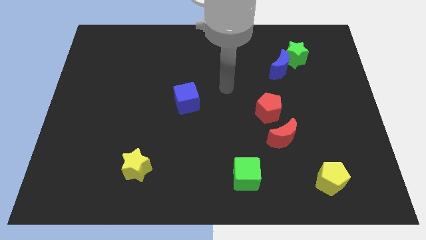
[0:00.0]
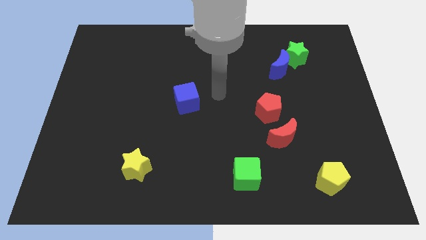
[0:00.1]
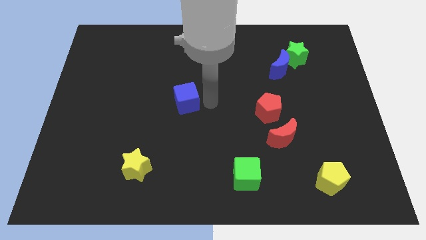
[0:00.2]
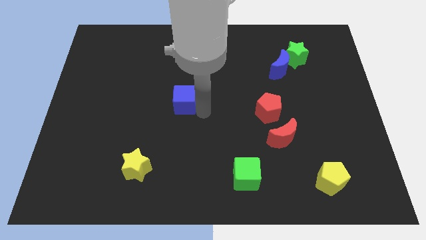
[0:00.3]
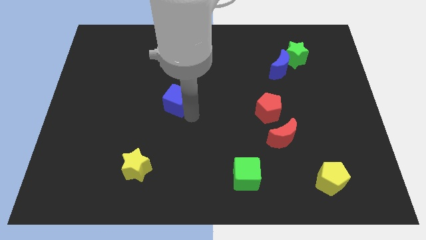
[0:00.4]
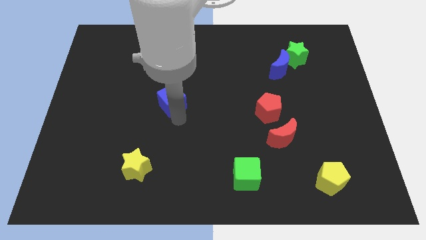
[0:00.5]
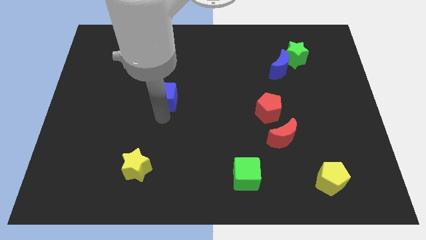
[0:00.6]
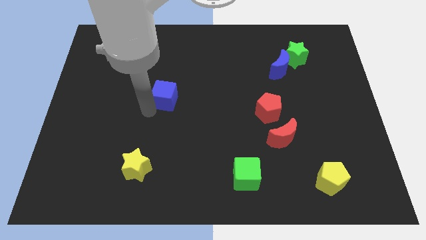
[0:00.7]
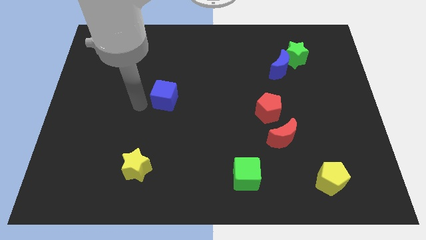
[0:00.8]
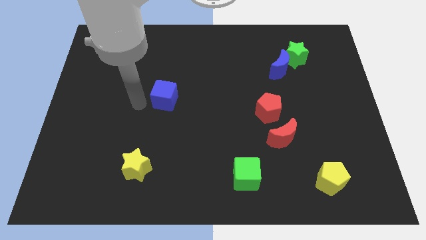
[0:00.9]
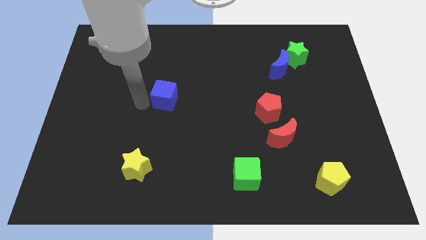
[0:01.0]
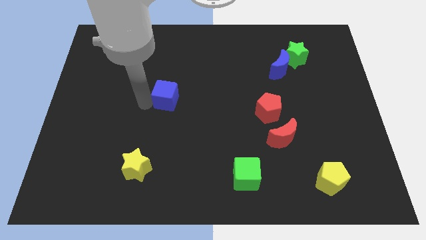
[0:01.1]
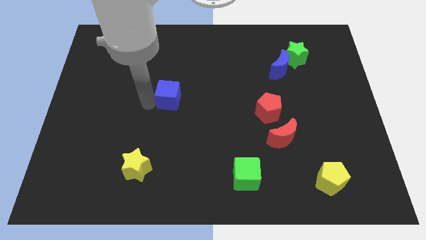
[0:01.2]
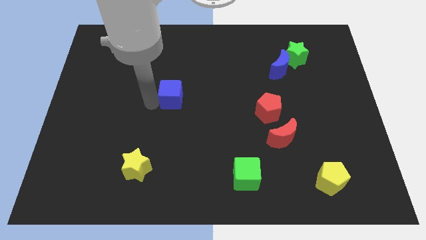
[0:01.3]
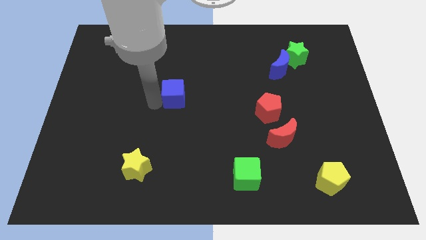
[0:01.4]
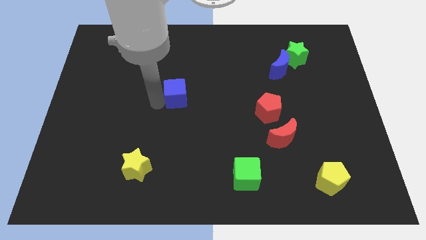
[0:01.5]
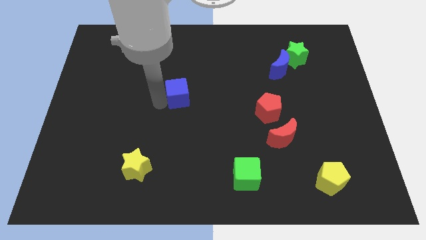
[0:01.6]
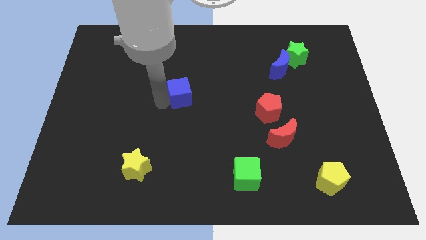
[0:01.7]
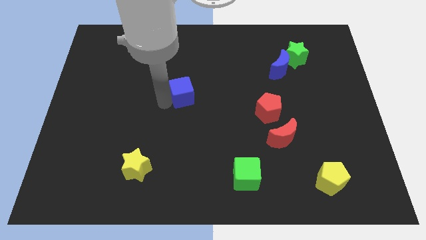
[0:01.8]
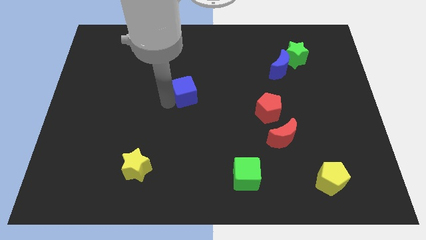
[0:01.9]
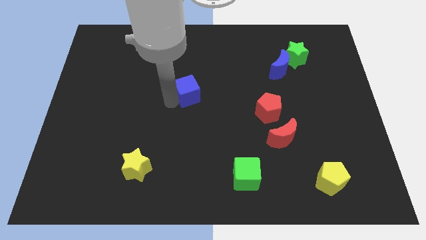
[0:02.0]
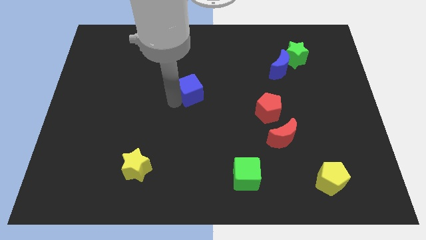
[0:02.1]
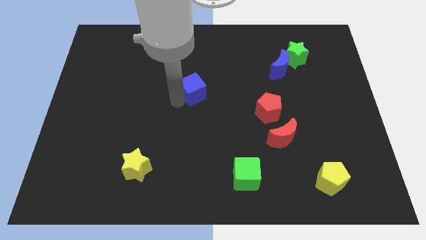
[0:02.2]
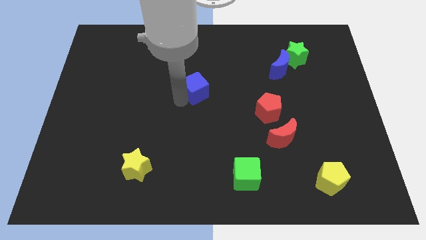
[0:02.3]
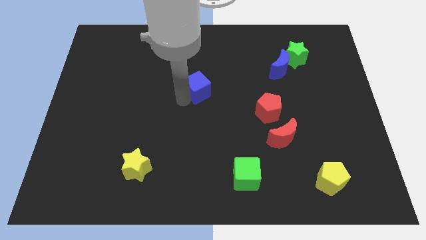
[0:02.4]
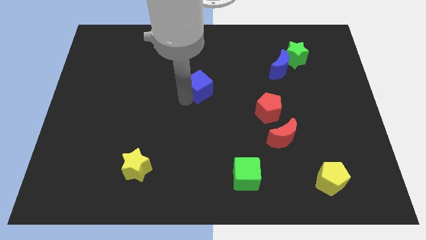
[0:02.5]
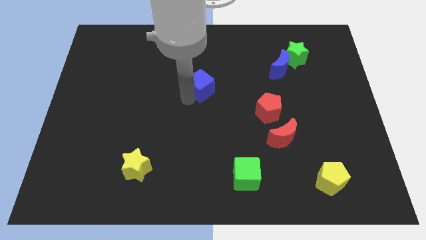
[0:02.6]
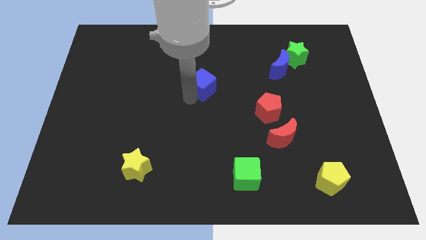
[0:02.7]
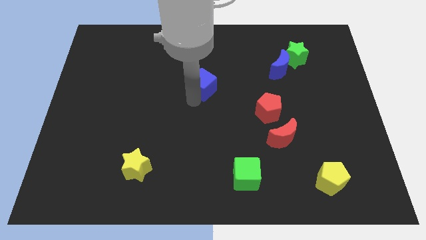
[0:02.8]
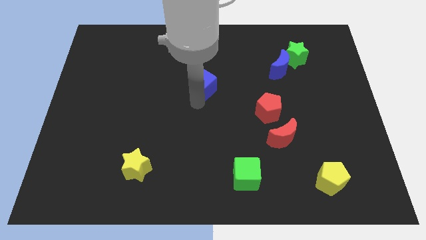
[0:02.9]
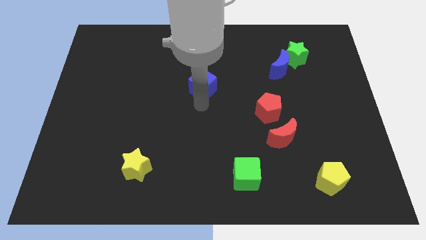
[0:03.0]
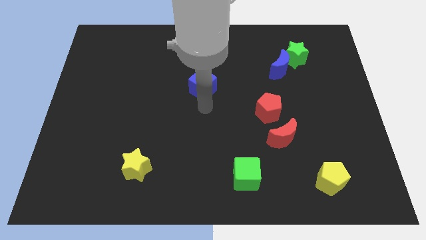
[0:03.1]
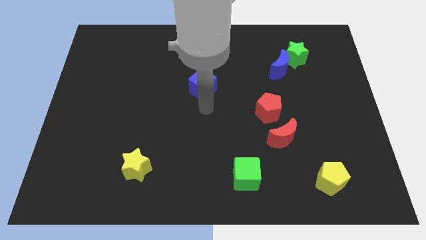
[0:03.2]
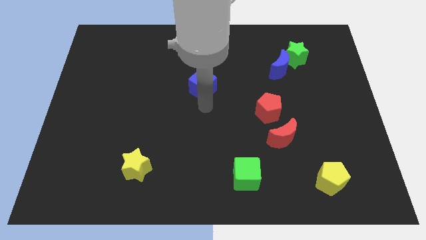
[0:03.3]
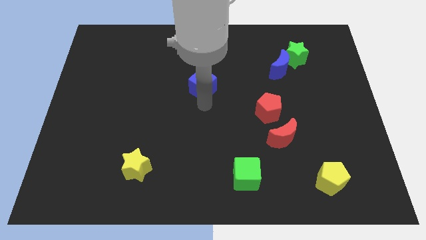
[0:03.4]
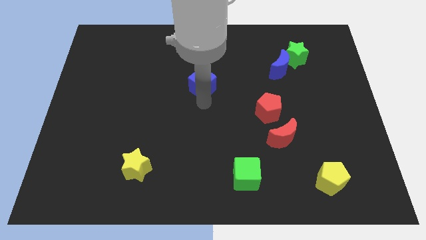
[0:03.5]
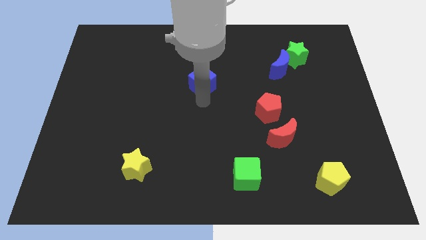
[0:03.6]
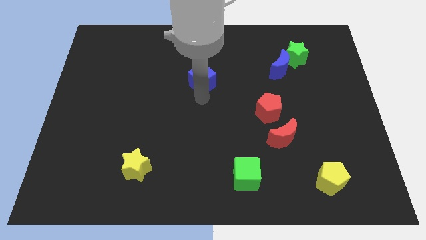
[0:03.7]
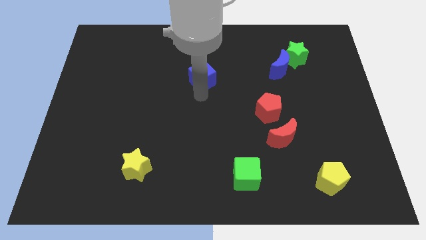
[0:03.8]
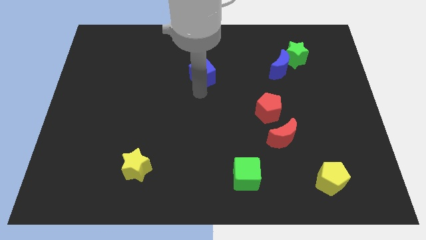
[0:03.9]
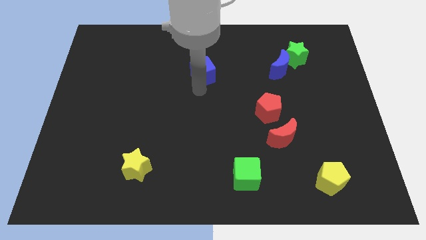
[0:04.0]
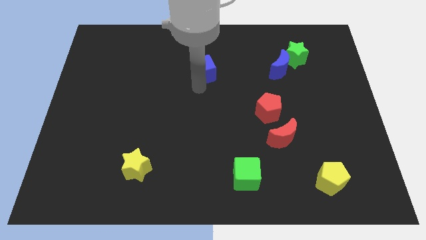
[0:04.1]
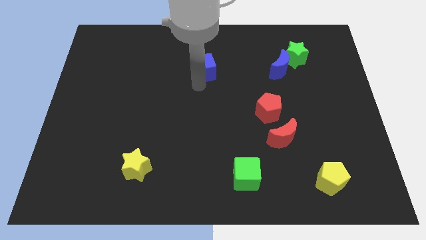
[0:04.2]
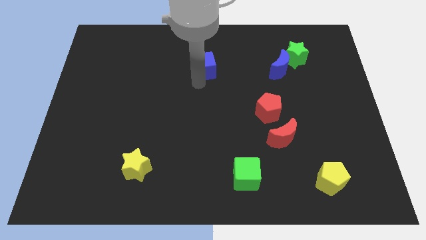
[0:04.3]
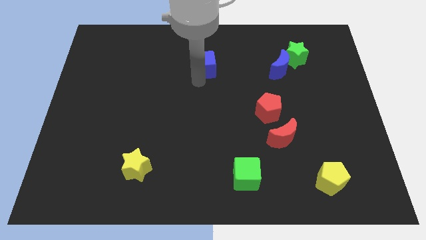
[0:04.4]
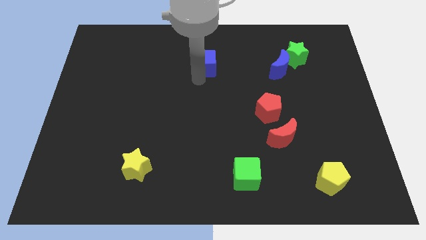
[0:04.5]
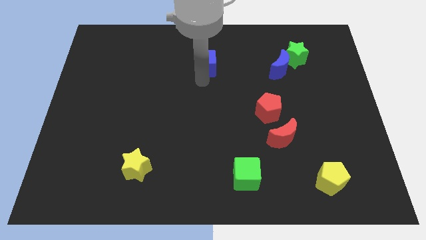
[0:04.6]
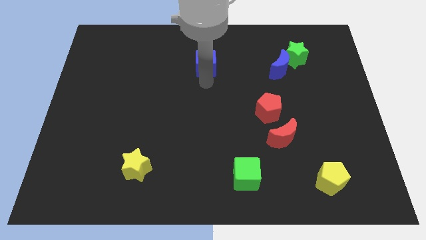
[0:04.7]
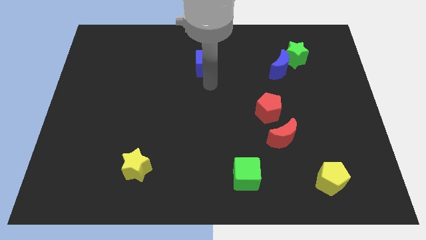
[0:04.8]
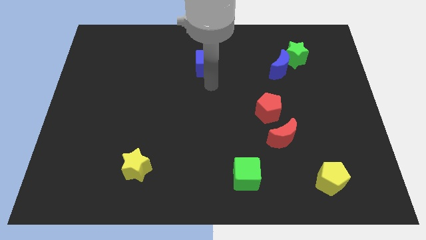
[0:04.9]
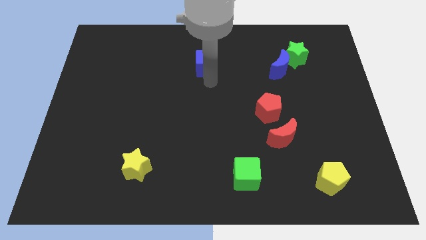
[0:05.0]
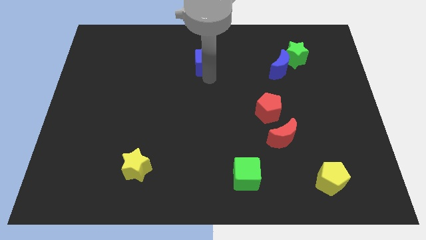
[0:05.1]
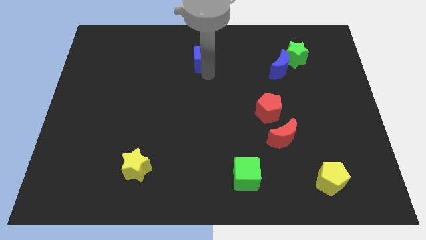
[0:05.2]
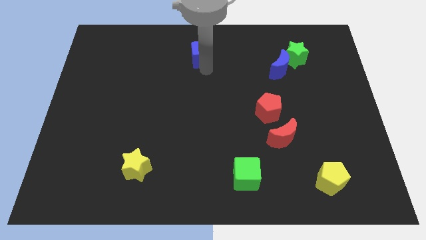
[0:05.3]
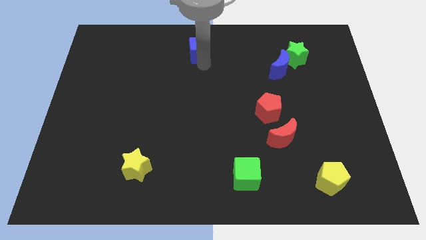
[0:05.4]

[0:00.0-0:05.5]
slide the blue cube to the towards your base

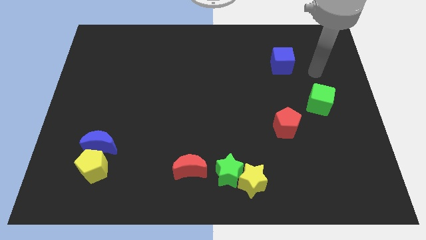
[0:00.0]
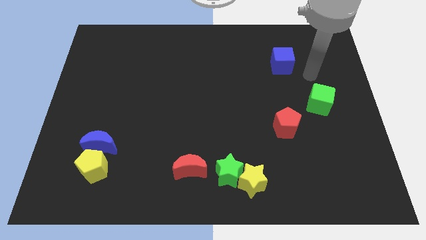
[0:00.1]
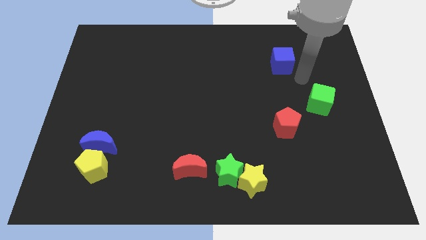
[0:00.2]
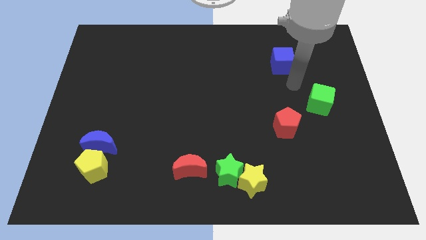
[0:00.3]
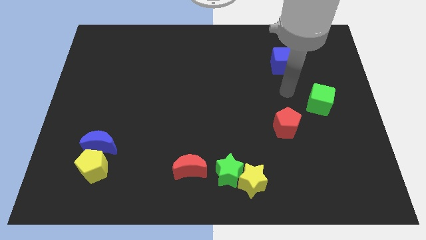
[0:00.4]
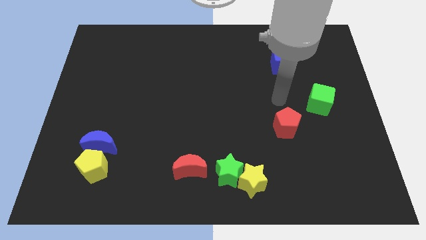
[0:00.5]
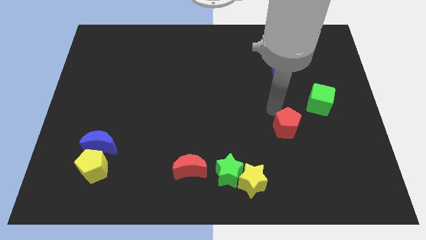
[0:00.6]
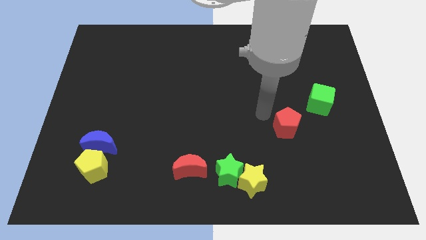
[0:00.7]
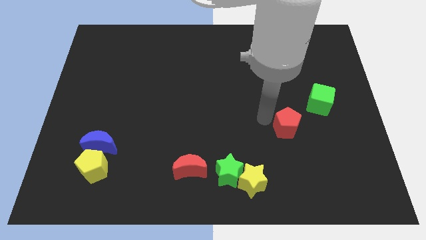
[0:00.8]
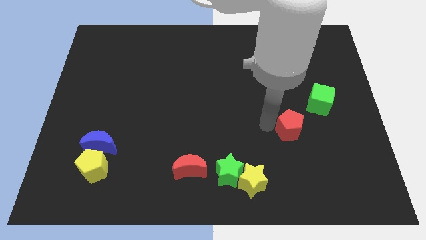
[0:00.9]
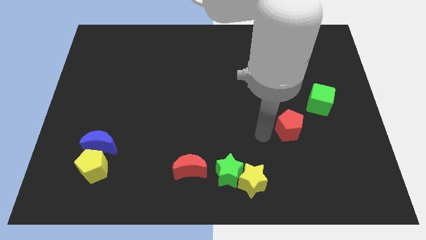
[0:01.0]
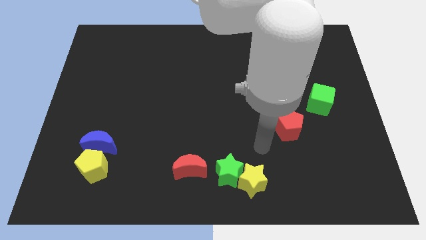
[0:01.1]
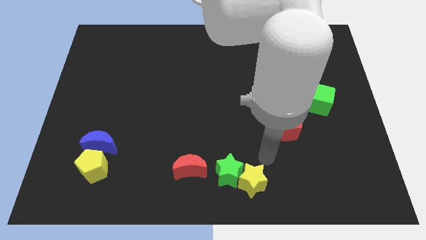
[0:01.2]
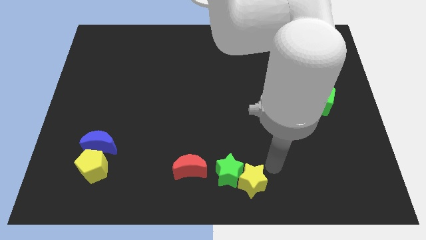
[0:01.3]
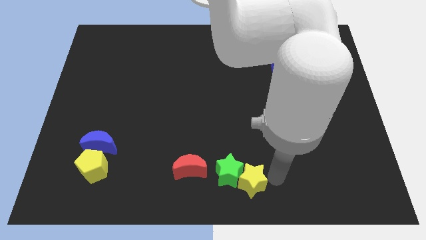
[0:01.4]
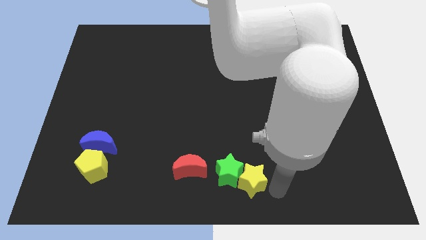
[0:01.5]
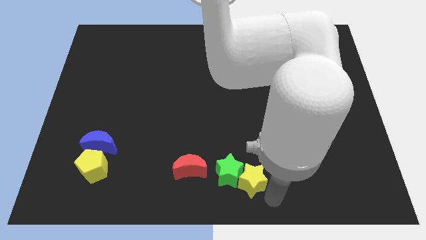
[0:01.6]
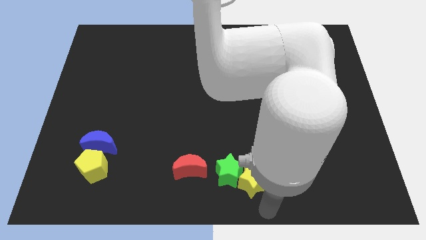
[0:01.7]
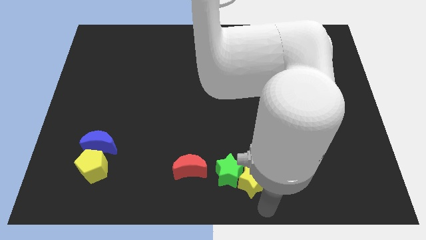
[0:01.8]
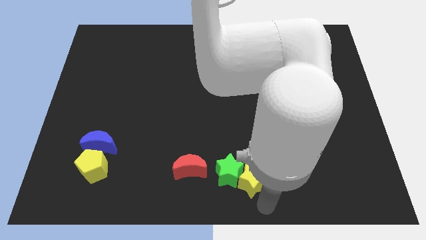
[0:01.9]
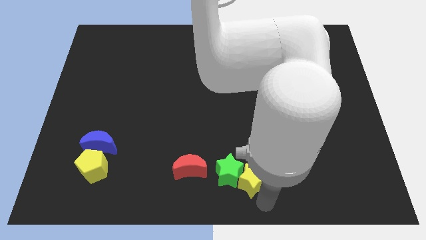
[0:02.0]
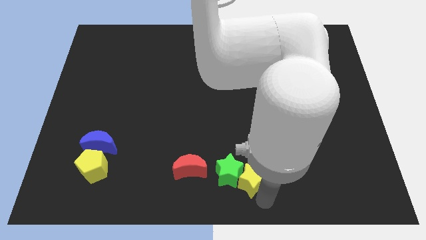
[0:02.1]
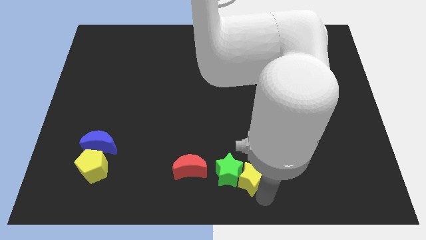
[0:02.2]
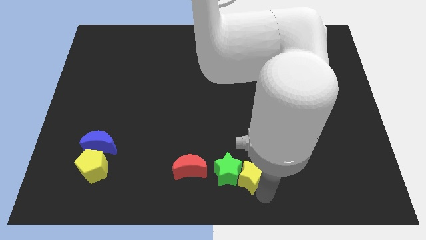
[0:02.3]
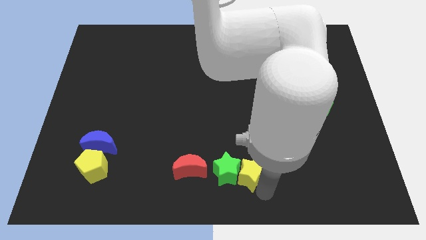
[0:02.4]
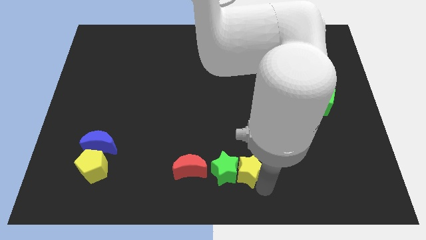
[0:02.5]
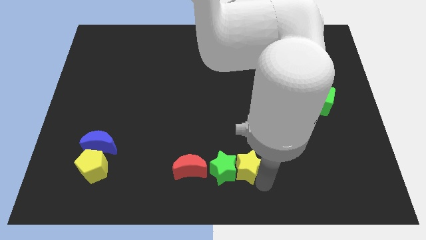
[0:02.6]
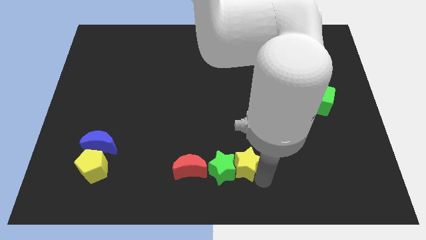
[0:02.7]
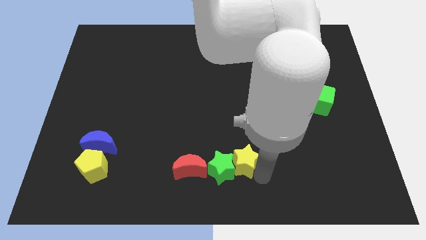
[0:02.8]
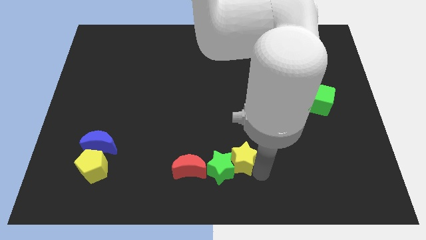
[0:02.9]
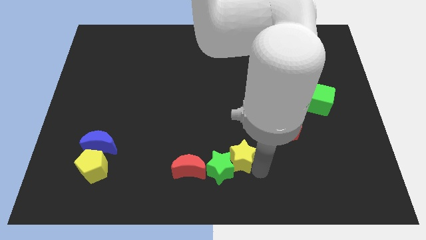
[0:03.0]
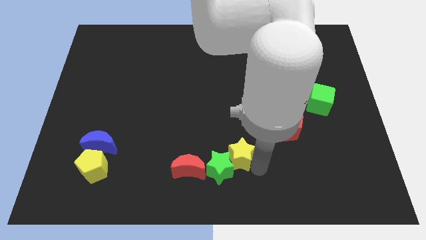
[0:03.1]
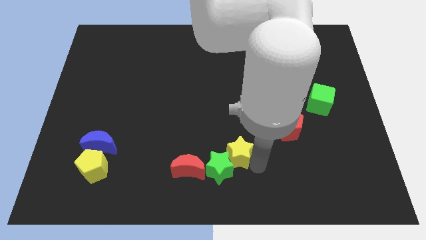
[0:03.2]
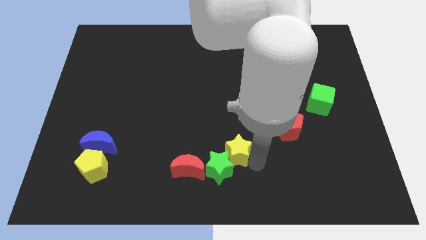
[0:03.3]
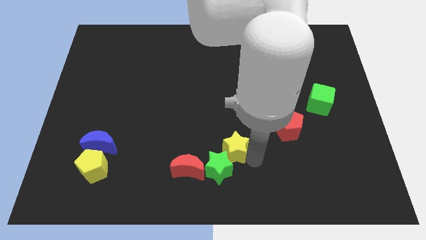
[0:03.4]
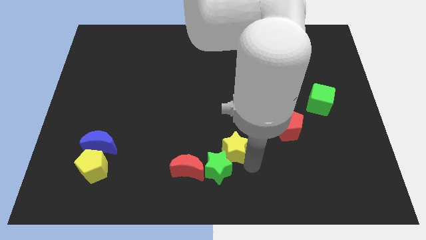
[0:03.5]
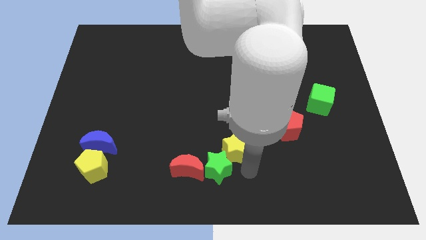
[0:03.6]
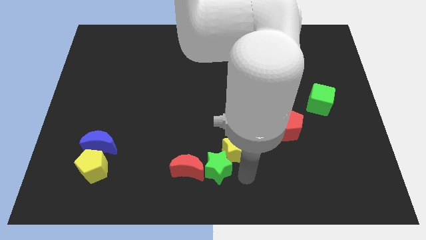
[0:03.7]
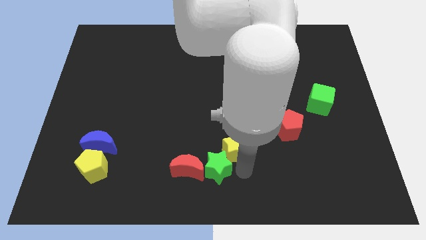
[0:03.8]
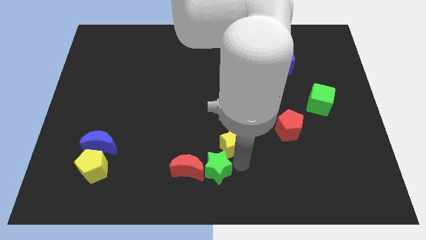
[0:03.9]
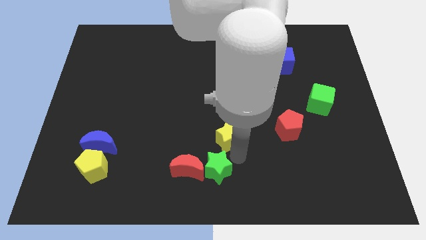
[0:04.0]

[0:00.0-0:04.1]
move the yellow star to the center of the board
